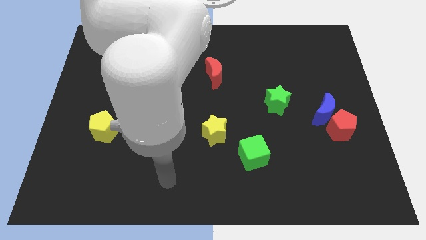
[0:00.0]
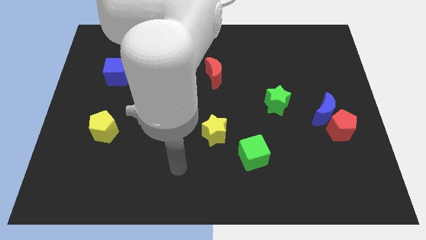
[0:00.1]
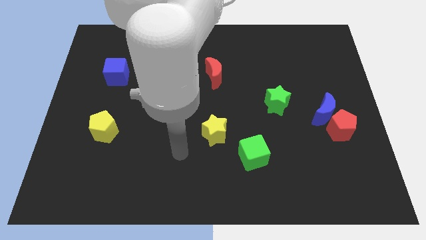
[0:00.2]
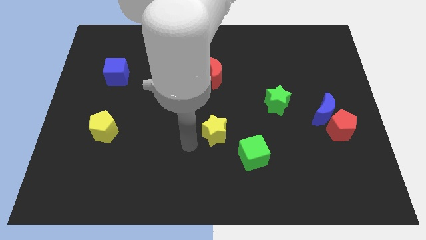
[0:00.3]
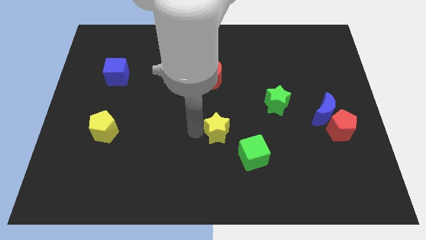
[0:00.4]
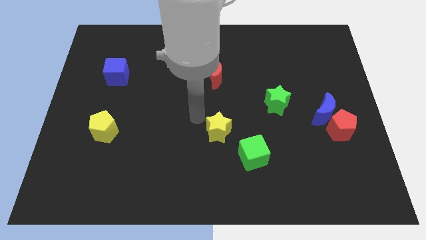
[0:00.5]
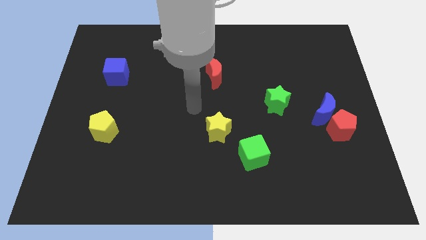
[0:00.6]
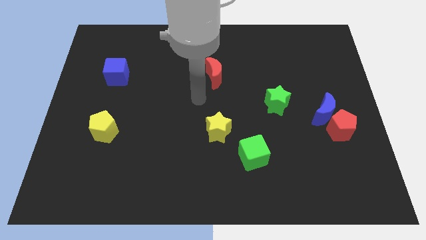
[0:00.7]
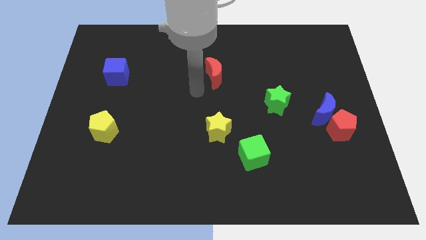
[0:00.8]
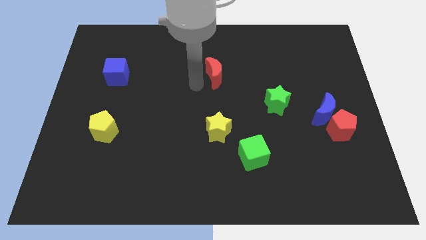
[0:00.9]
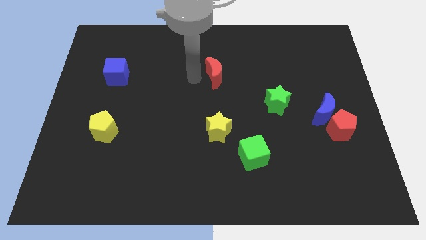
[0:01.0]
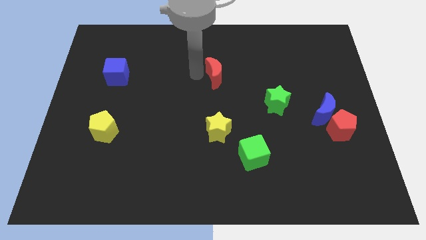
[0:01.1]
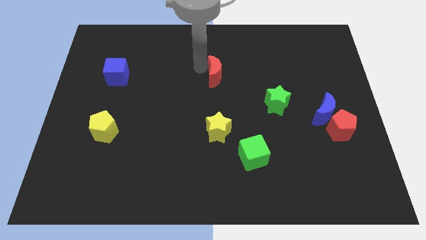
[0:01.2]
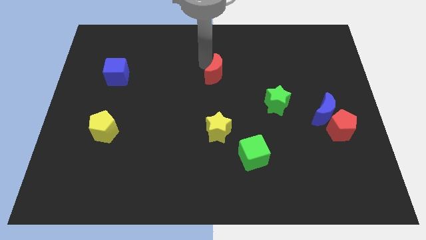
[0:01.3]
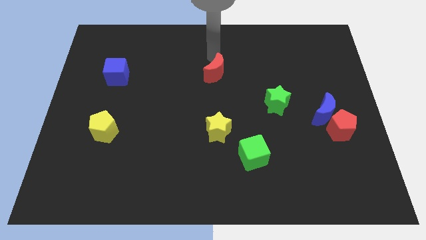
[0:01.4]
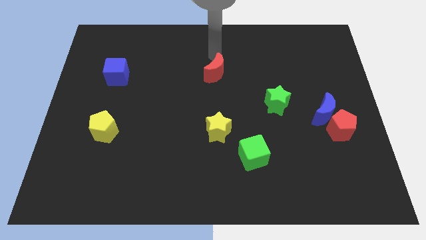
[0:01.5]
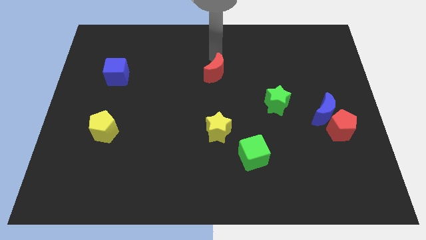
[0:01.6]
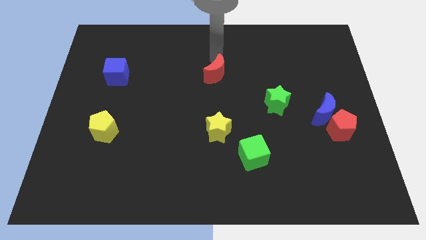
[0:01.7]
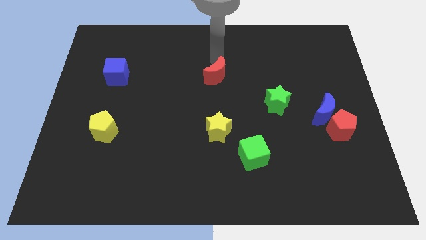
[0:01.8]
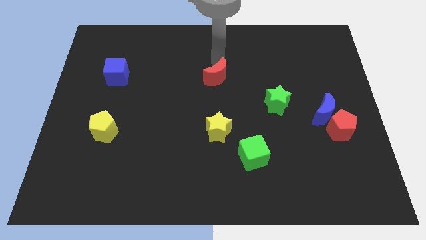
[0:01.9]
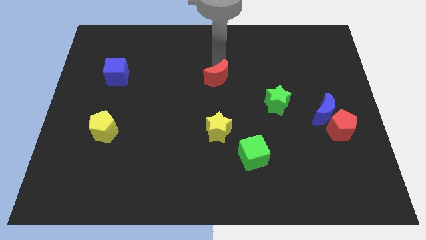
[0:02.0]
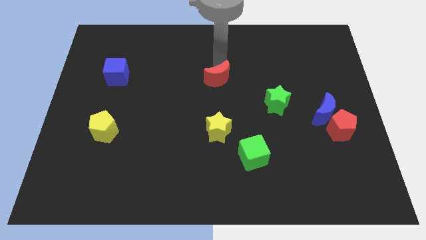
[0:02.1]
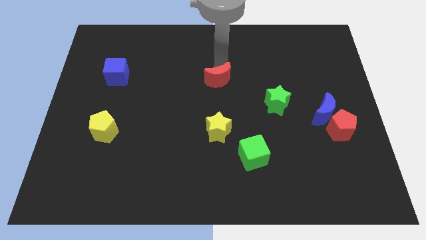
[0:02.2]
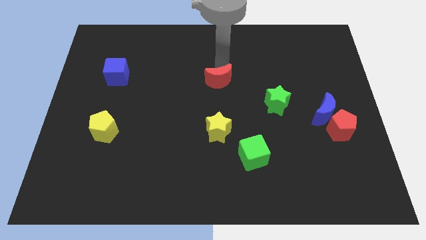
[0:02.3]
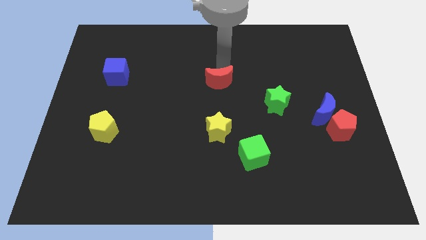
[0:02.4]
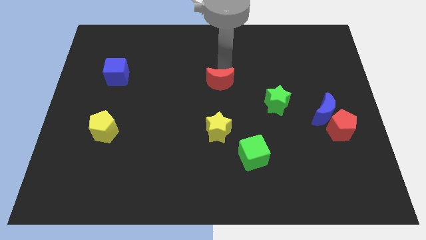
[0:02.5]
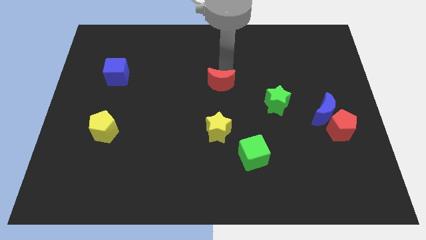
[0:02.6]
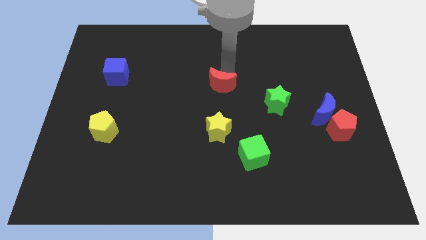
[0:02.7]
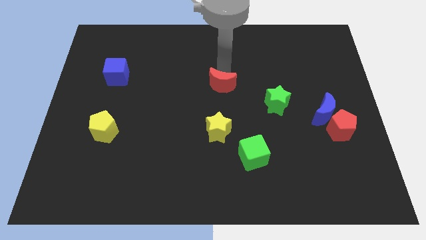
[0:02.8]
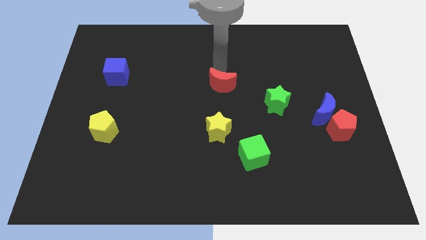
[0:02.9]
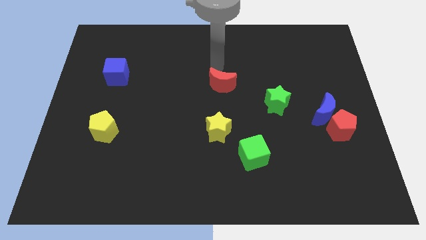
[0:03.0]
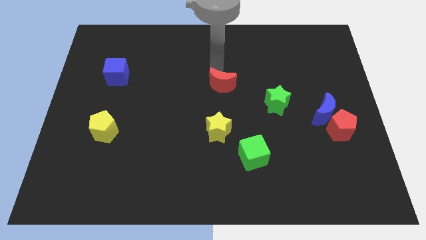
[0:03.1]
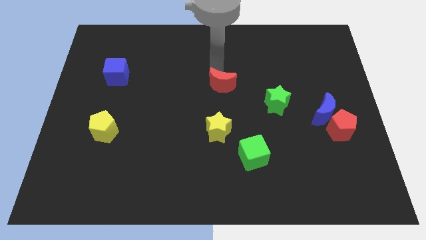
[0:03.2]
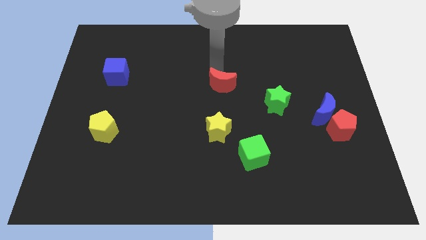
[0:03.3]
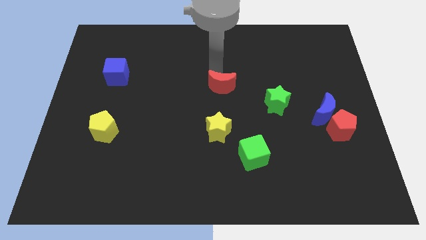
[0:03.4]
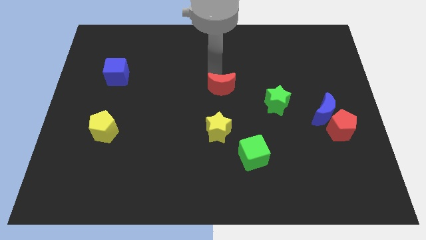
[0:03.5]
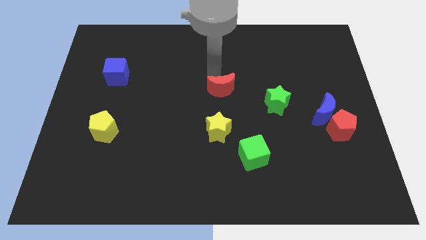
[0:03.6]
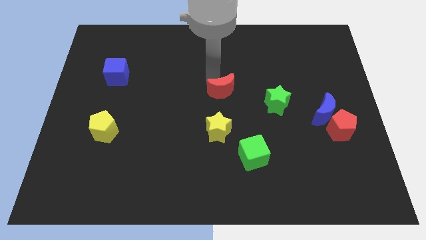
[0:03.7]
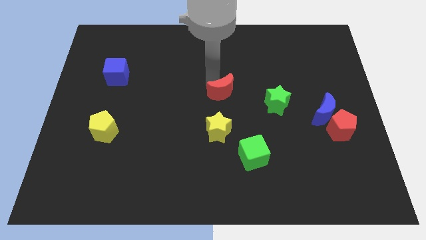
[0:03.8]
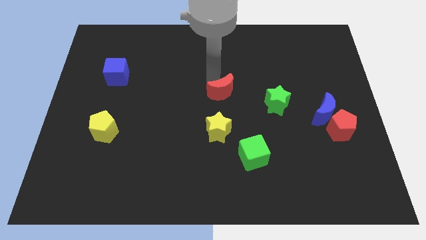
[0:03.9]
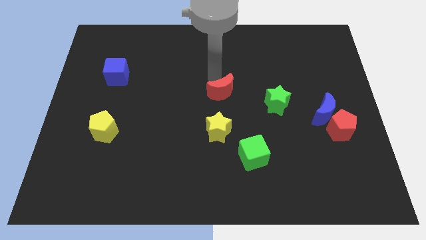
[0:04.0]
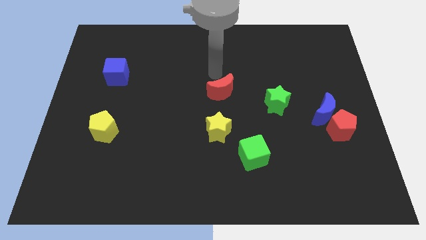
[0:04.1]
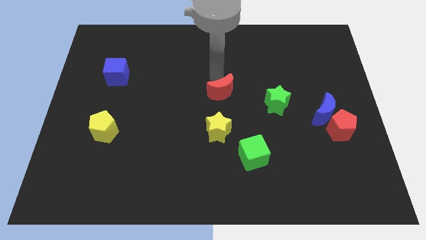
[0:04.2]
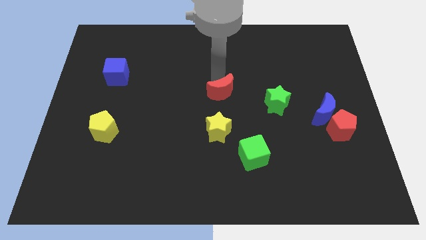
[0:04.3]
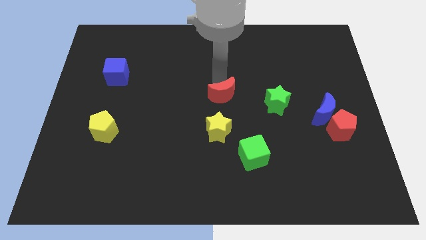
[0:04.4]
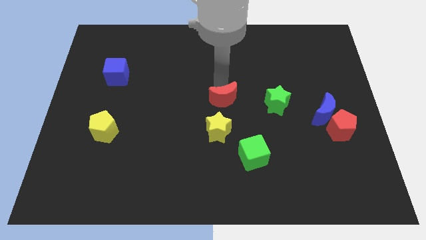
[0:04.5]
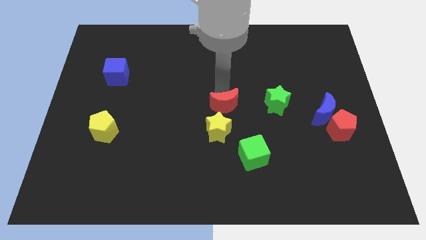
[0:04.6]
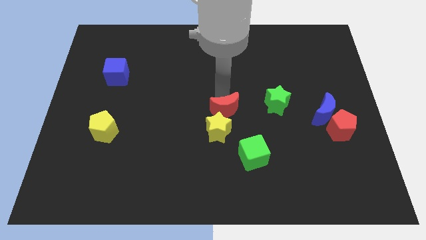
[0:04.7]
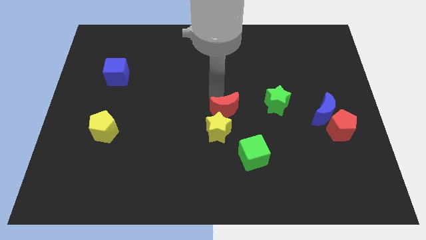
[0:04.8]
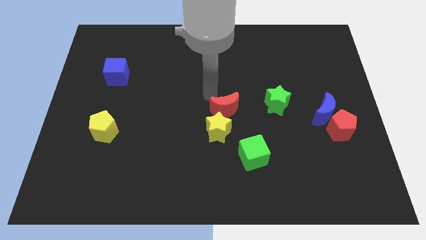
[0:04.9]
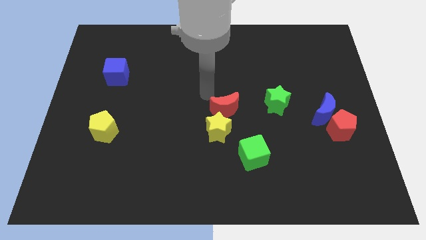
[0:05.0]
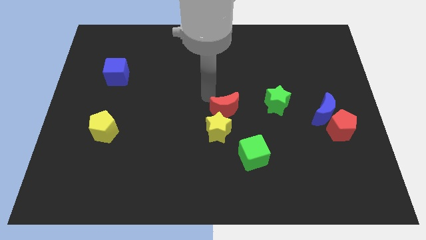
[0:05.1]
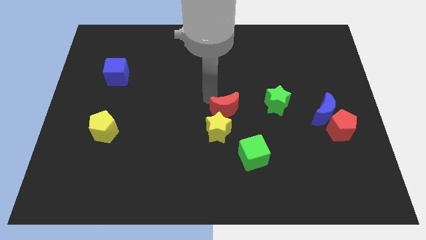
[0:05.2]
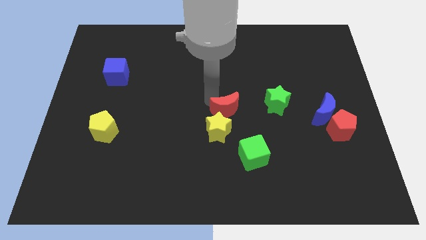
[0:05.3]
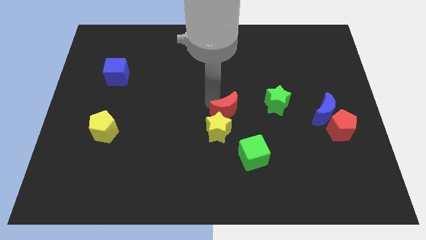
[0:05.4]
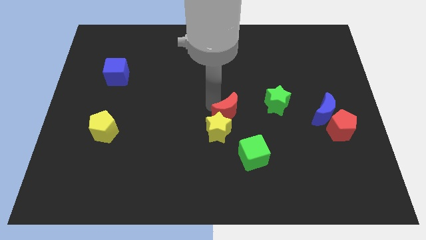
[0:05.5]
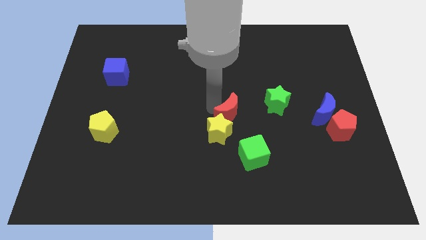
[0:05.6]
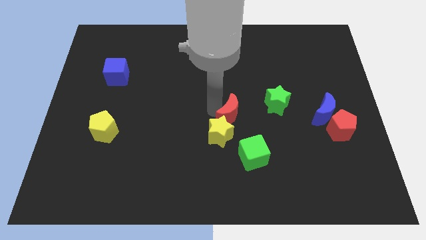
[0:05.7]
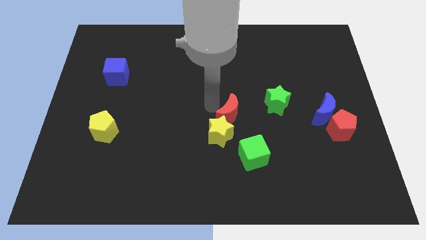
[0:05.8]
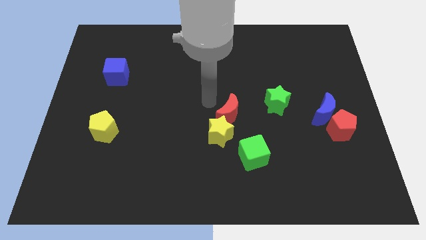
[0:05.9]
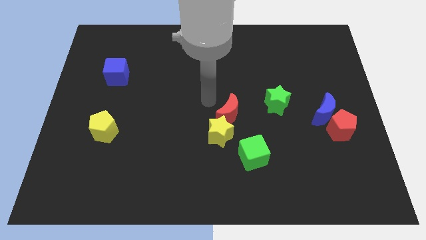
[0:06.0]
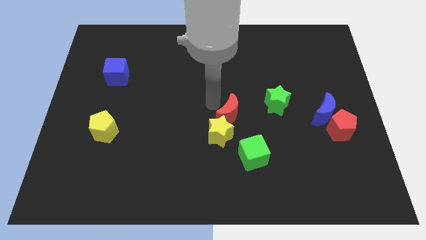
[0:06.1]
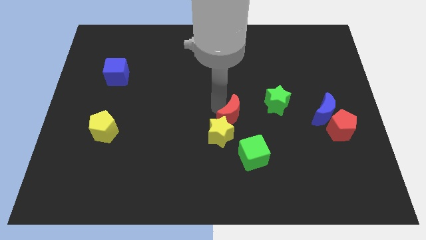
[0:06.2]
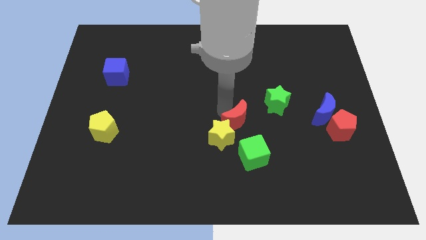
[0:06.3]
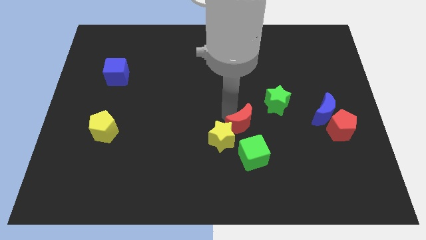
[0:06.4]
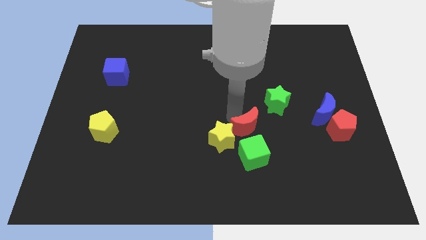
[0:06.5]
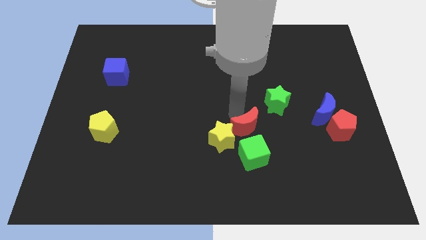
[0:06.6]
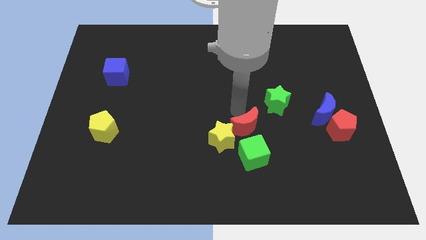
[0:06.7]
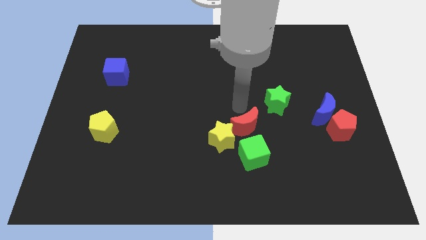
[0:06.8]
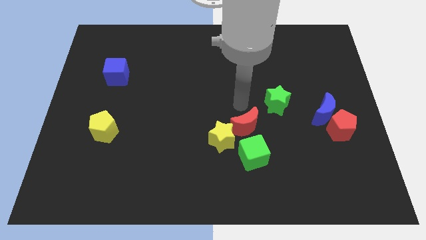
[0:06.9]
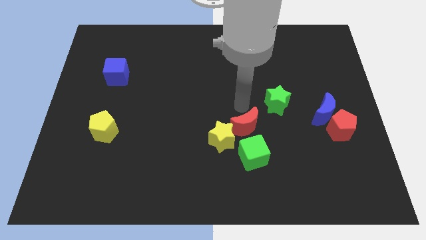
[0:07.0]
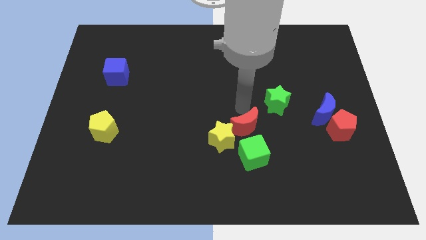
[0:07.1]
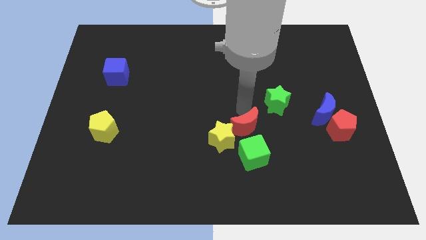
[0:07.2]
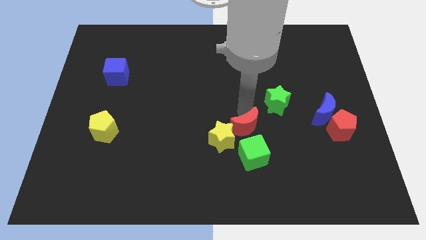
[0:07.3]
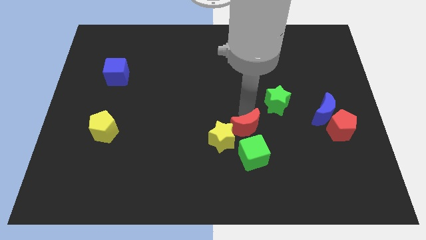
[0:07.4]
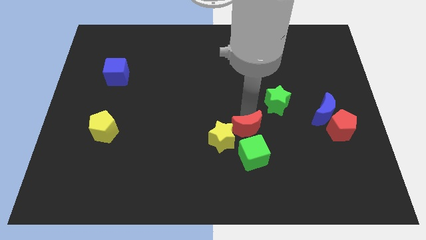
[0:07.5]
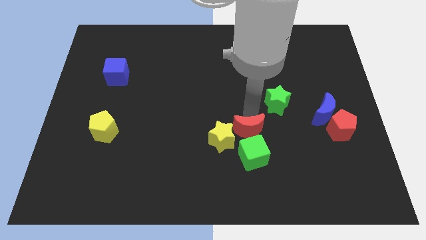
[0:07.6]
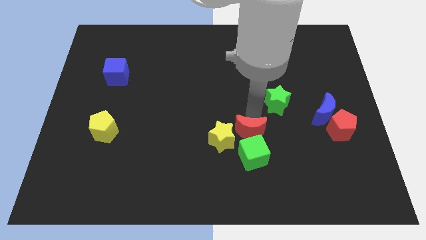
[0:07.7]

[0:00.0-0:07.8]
move the red moon towards the green cube
